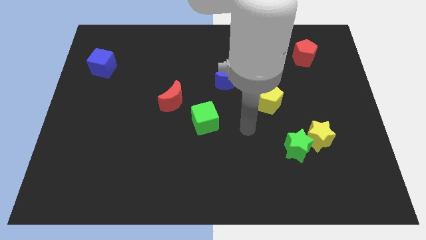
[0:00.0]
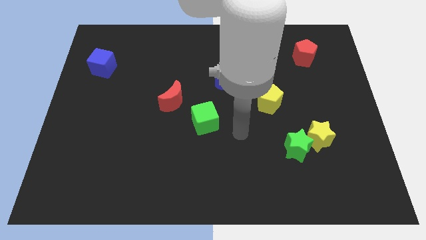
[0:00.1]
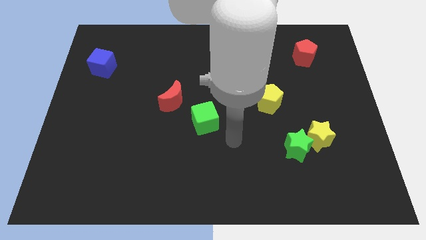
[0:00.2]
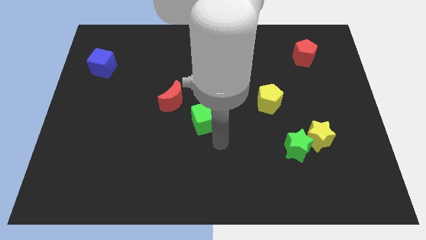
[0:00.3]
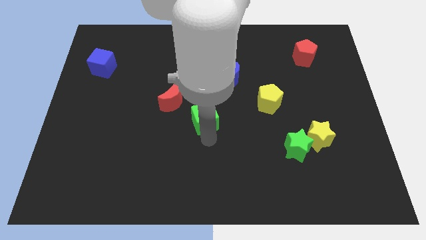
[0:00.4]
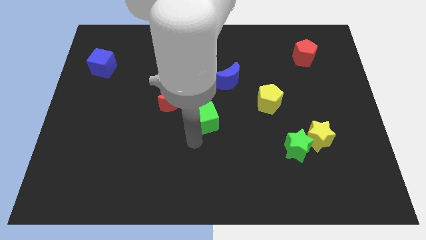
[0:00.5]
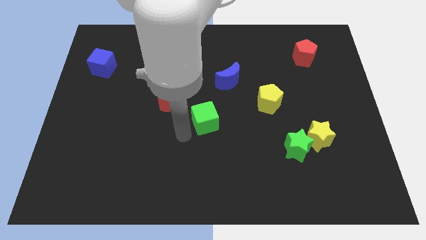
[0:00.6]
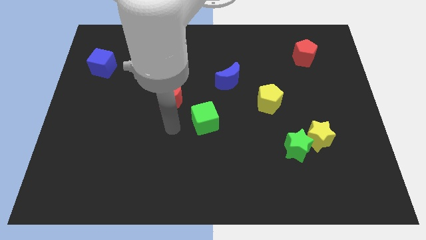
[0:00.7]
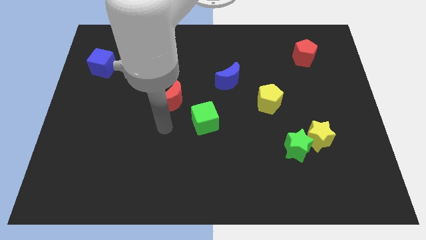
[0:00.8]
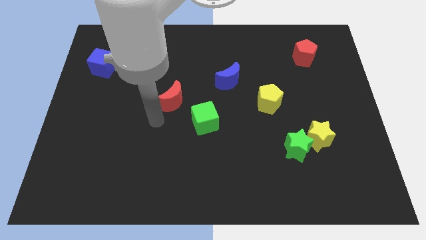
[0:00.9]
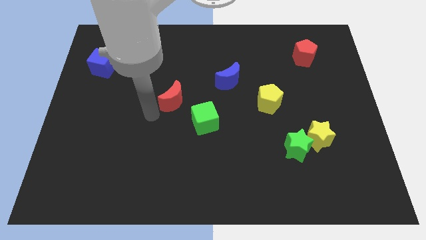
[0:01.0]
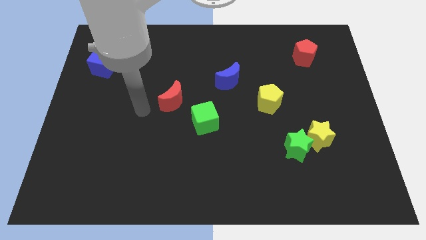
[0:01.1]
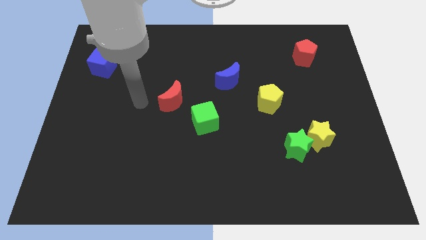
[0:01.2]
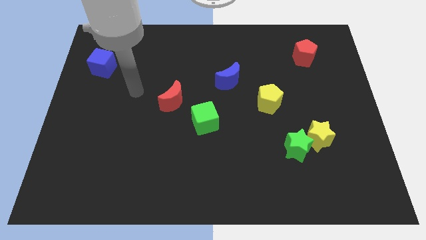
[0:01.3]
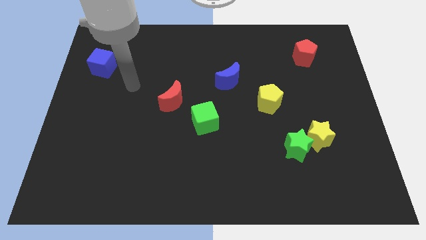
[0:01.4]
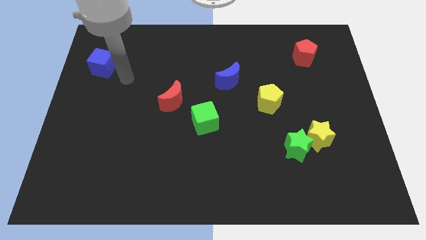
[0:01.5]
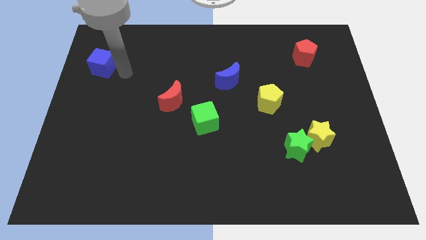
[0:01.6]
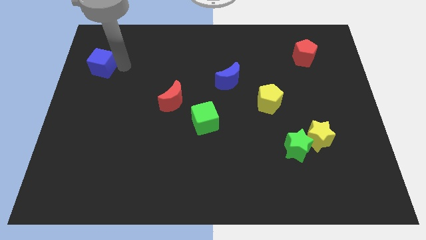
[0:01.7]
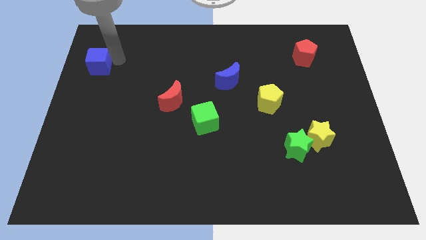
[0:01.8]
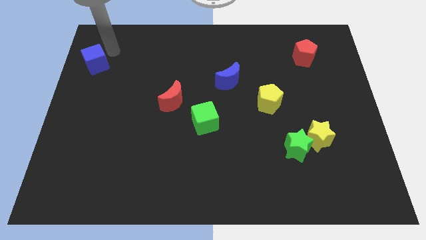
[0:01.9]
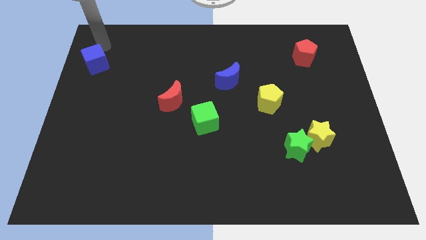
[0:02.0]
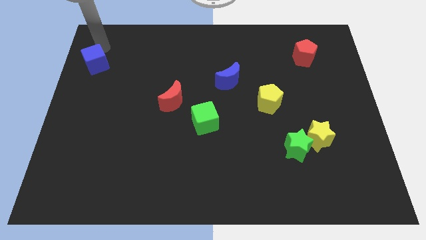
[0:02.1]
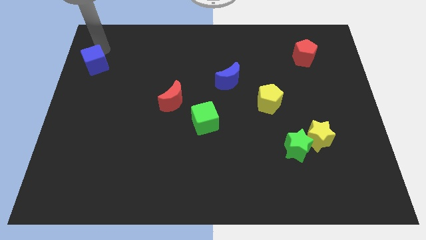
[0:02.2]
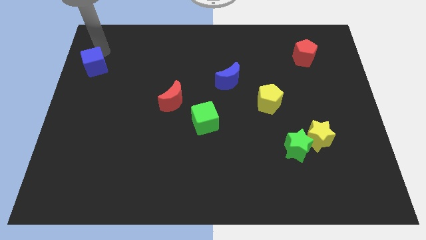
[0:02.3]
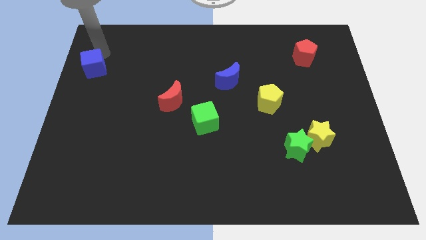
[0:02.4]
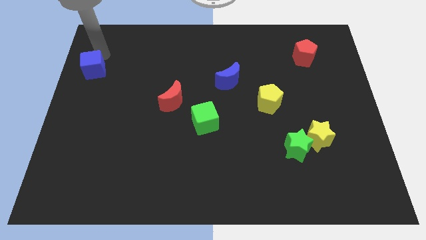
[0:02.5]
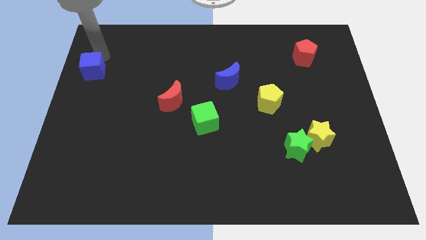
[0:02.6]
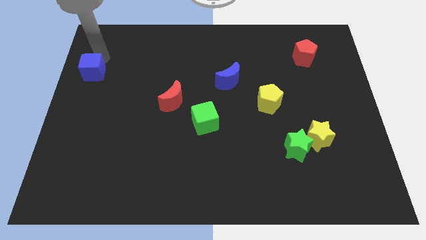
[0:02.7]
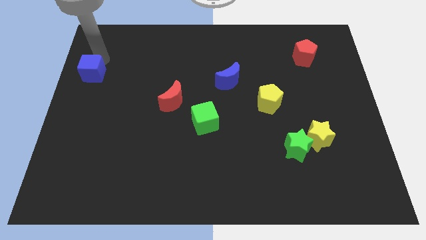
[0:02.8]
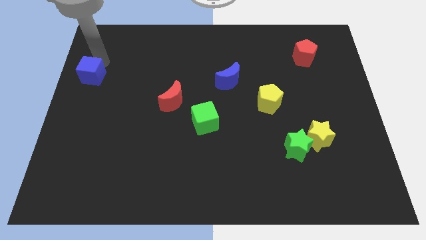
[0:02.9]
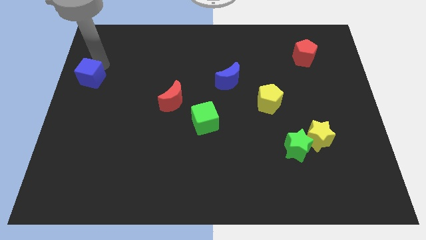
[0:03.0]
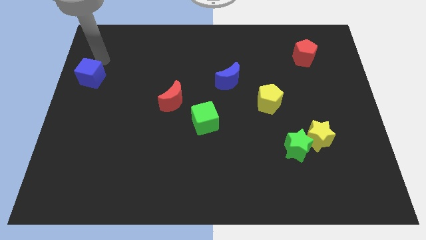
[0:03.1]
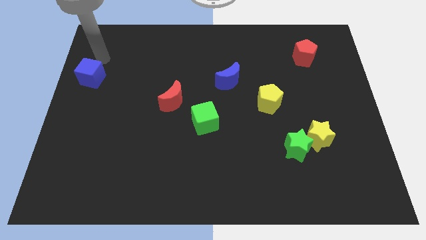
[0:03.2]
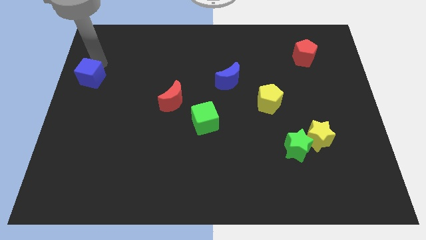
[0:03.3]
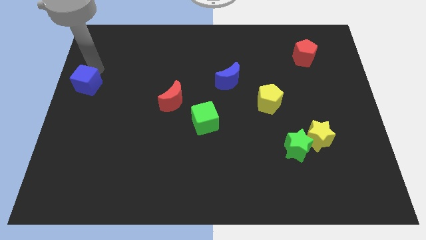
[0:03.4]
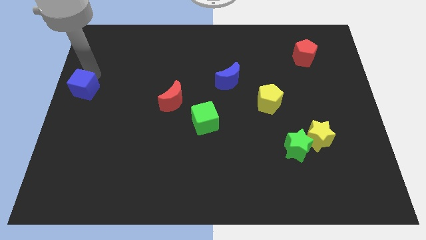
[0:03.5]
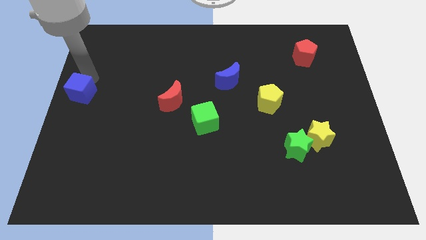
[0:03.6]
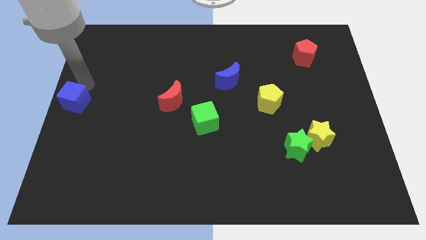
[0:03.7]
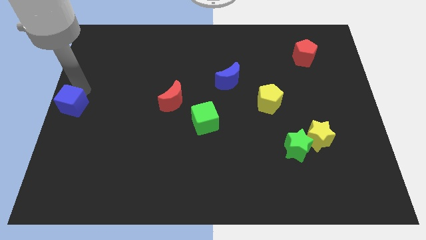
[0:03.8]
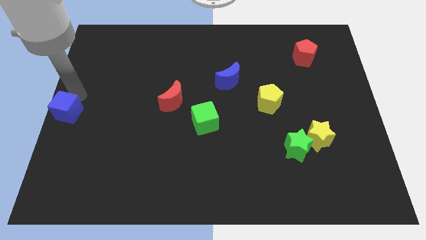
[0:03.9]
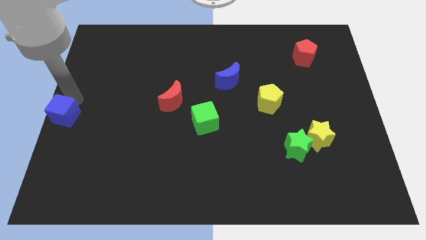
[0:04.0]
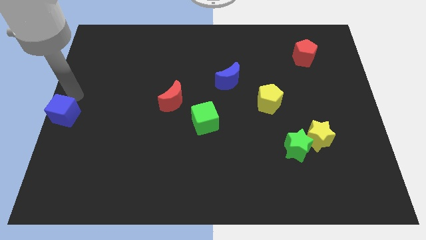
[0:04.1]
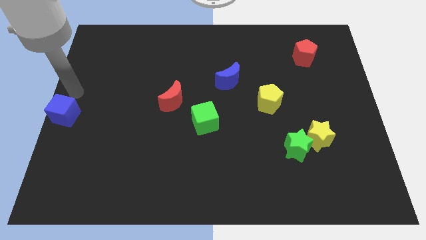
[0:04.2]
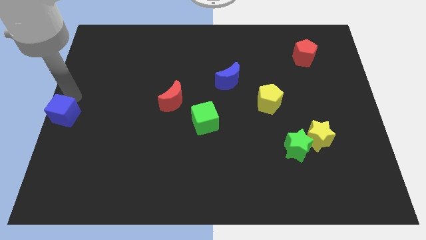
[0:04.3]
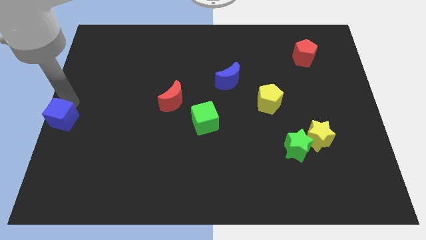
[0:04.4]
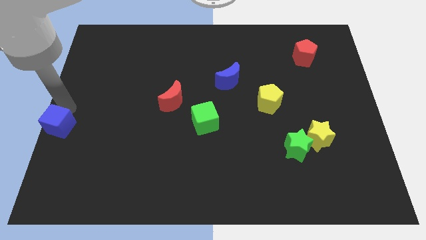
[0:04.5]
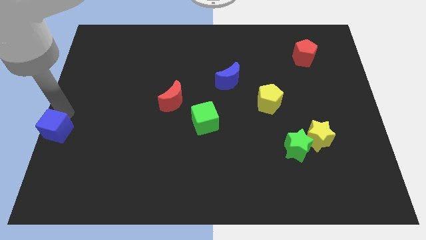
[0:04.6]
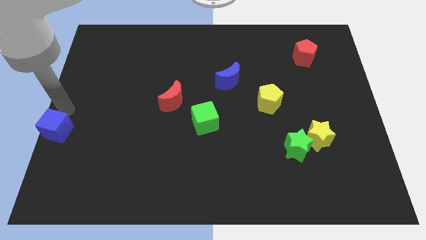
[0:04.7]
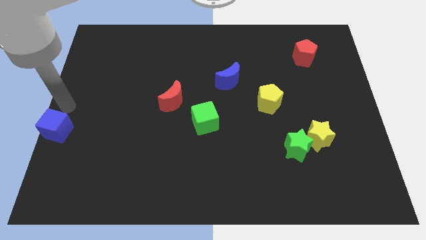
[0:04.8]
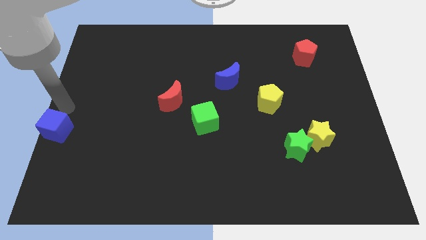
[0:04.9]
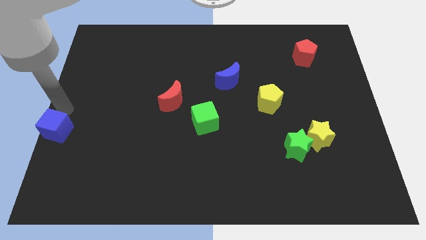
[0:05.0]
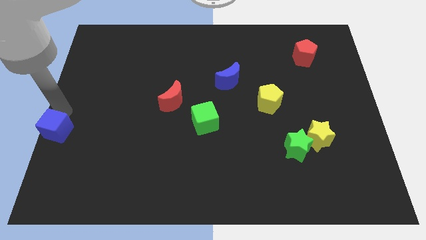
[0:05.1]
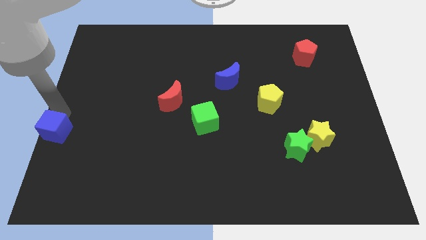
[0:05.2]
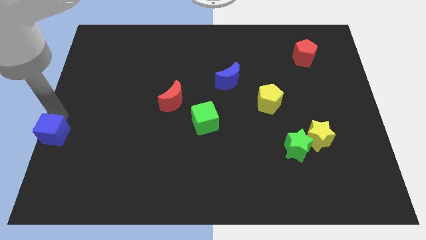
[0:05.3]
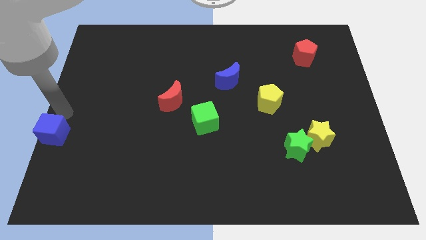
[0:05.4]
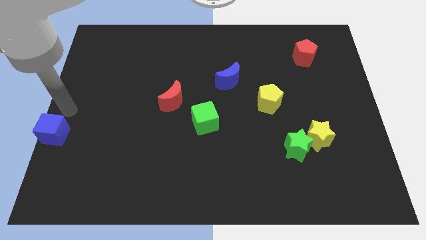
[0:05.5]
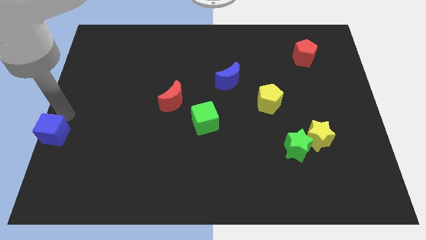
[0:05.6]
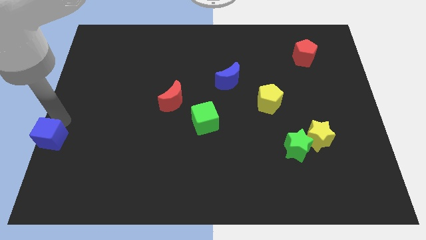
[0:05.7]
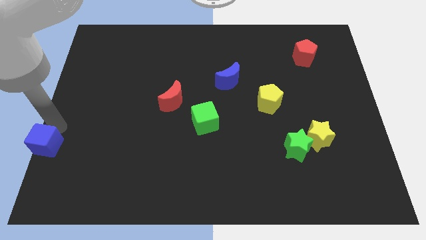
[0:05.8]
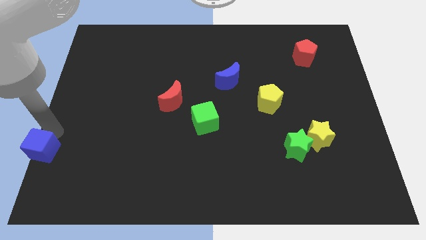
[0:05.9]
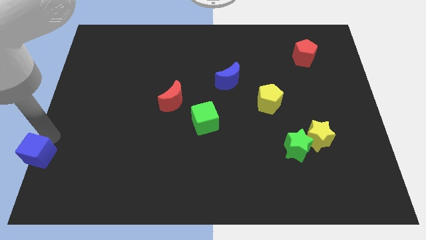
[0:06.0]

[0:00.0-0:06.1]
slide the blue cube to the bottom left

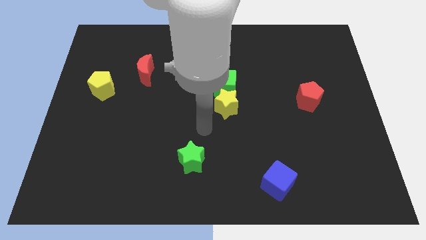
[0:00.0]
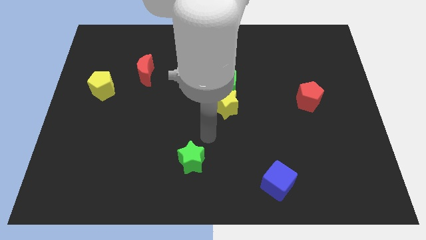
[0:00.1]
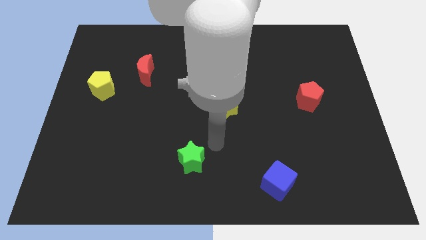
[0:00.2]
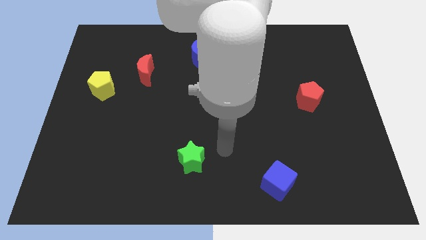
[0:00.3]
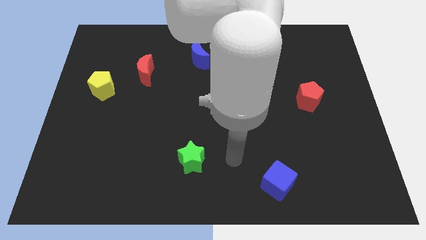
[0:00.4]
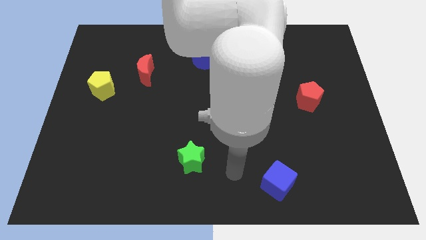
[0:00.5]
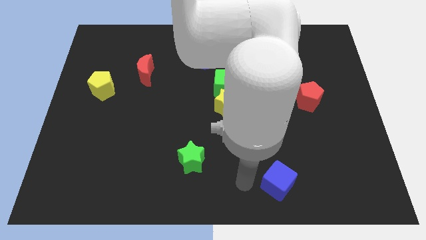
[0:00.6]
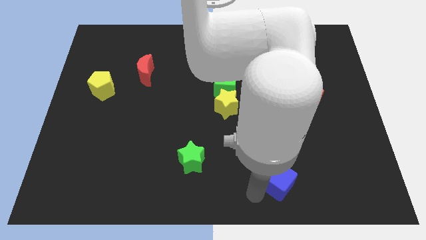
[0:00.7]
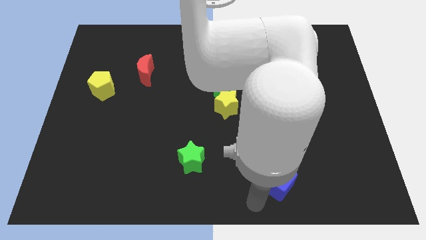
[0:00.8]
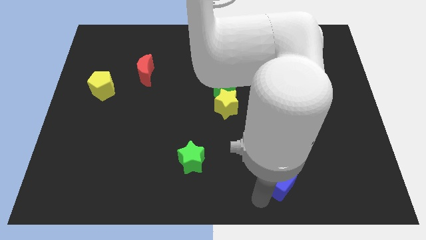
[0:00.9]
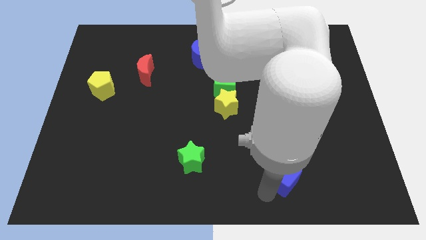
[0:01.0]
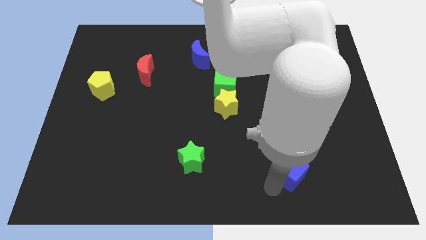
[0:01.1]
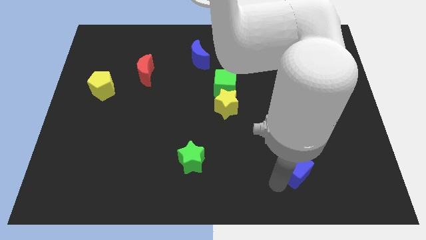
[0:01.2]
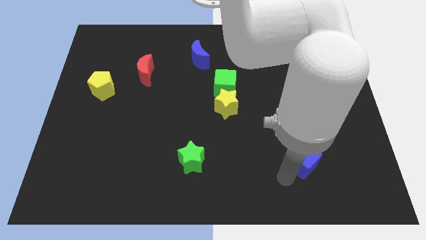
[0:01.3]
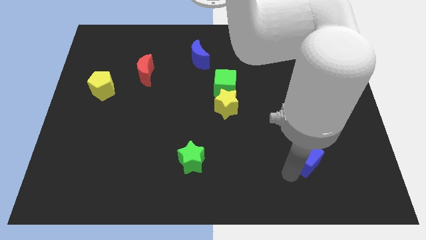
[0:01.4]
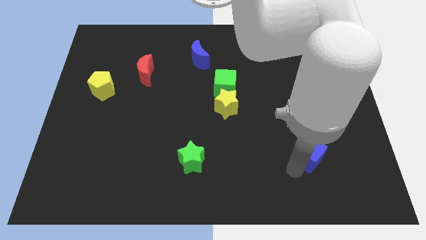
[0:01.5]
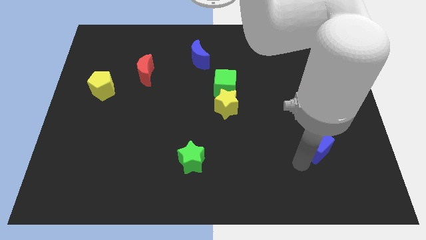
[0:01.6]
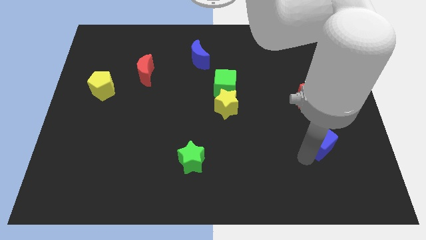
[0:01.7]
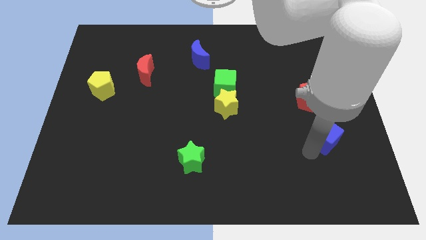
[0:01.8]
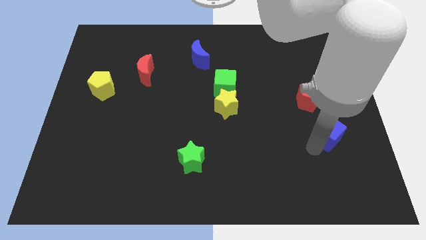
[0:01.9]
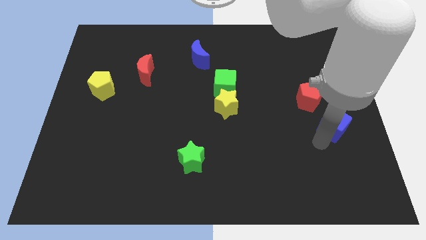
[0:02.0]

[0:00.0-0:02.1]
move the blue cube to the right side of the board
